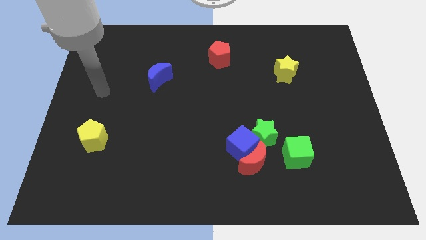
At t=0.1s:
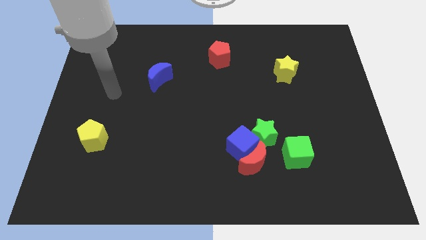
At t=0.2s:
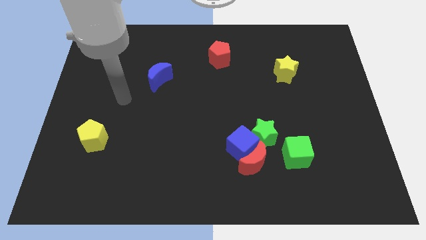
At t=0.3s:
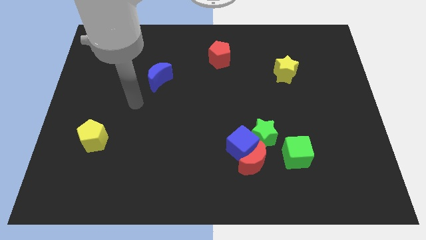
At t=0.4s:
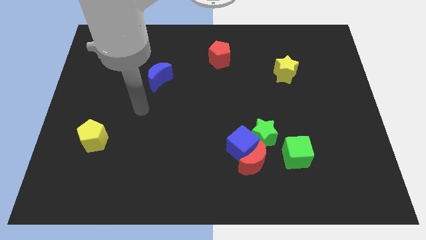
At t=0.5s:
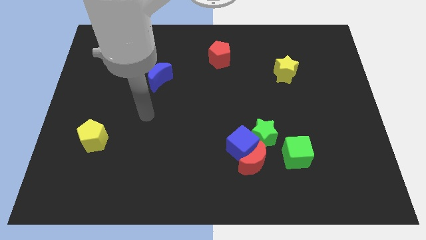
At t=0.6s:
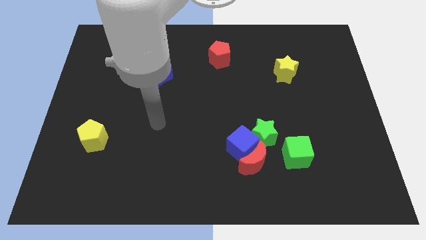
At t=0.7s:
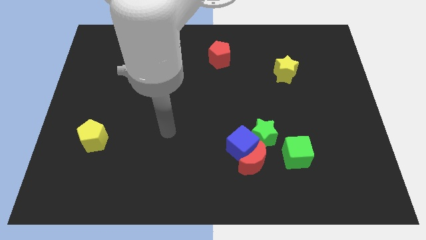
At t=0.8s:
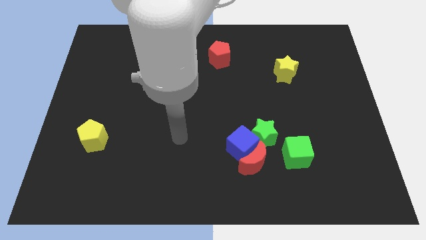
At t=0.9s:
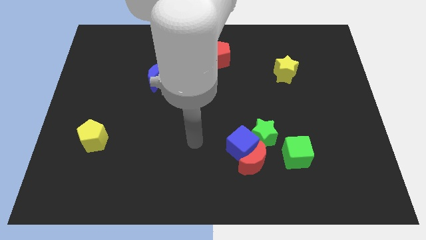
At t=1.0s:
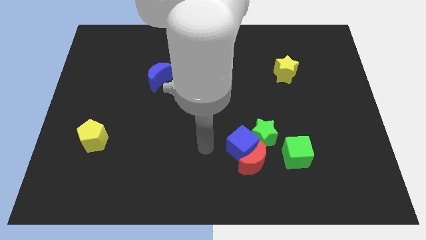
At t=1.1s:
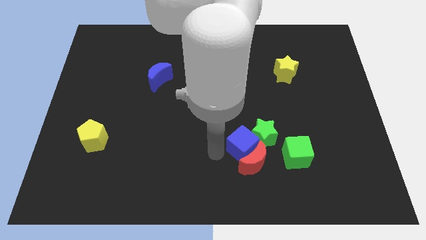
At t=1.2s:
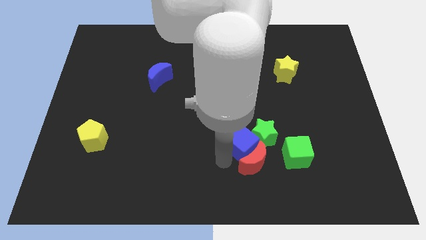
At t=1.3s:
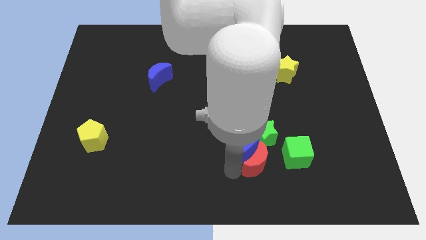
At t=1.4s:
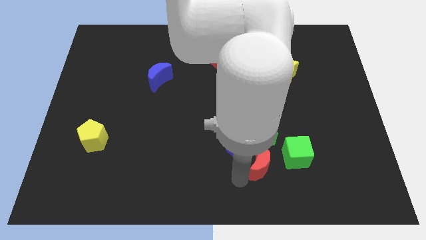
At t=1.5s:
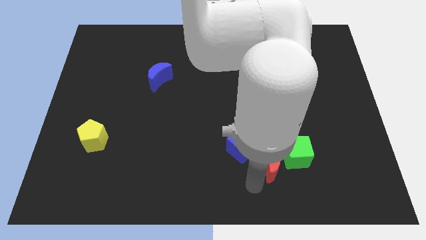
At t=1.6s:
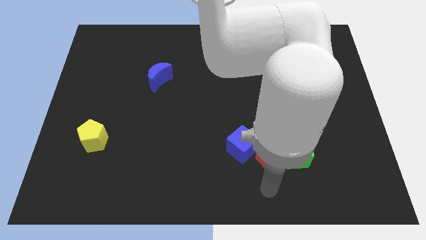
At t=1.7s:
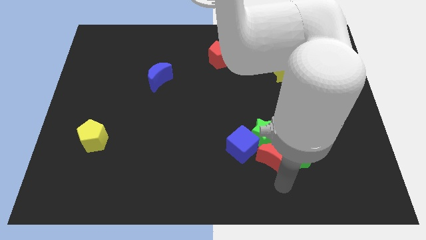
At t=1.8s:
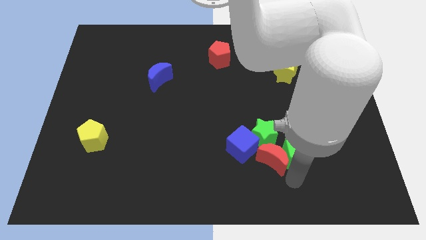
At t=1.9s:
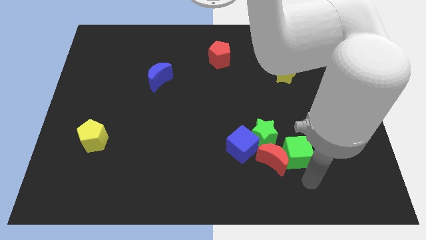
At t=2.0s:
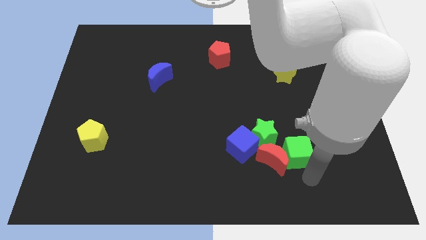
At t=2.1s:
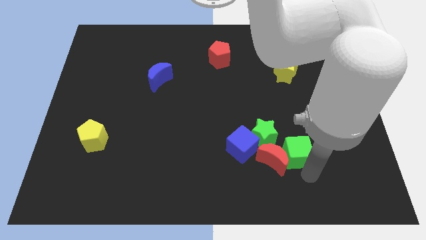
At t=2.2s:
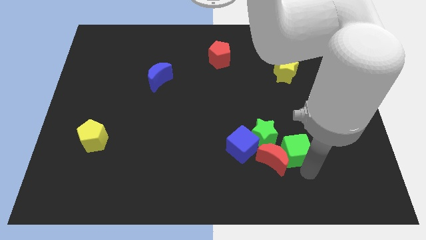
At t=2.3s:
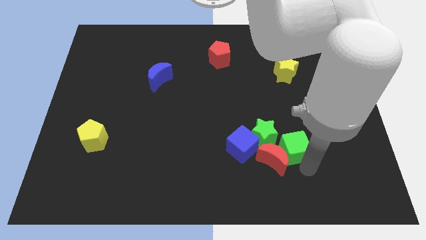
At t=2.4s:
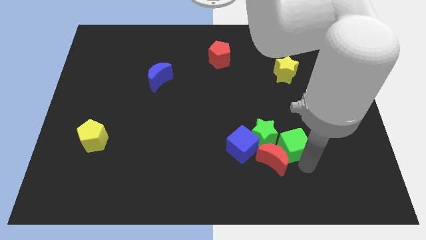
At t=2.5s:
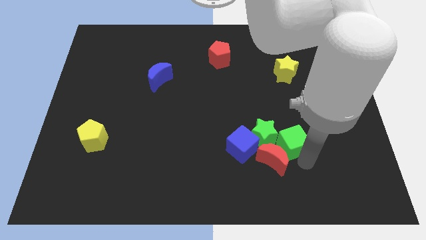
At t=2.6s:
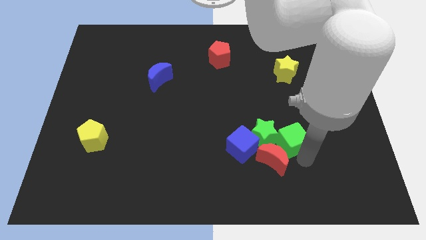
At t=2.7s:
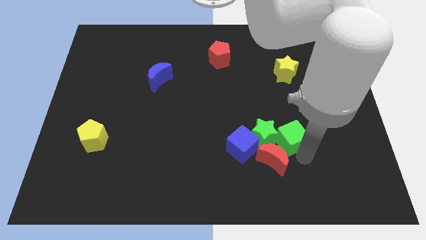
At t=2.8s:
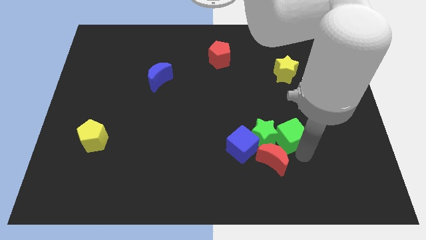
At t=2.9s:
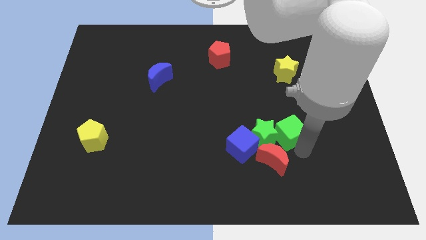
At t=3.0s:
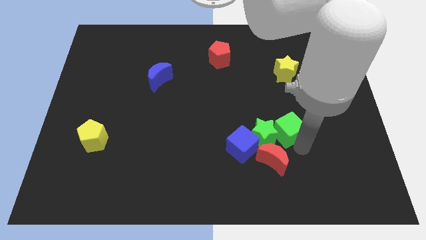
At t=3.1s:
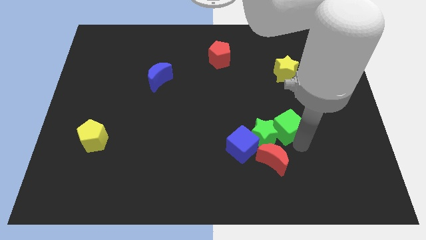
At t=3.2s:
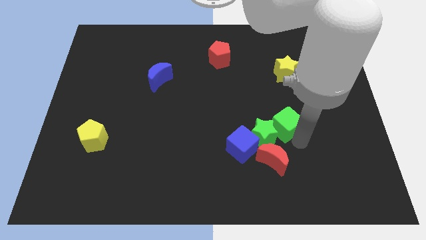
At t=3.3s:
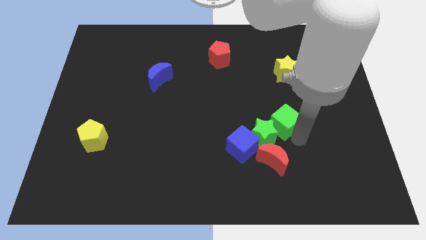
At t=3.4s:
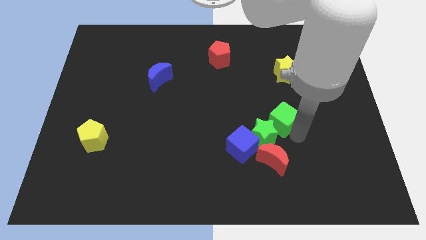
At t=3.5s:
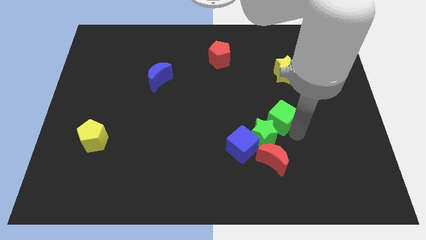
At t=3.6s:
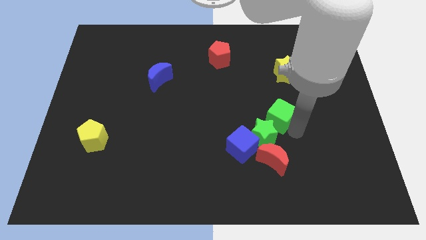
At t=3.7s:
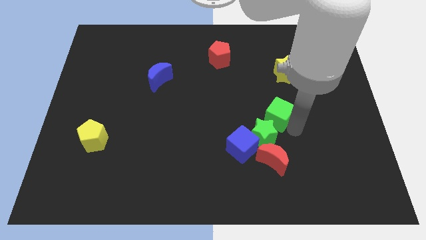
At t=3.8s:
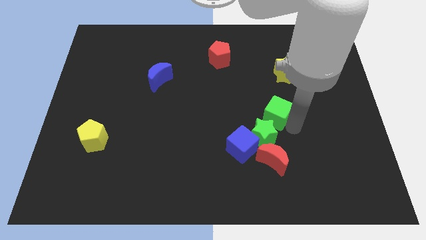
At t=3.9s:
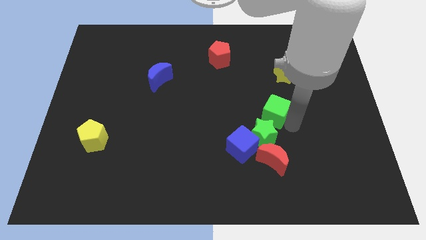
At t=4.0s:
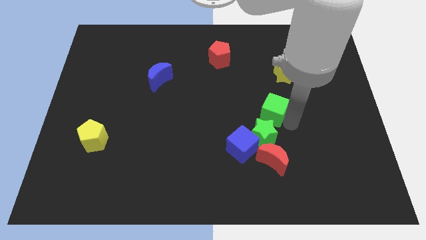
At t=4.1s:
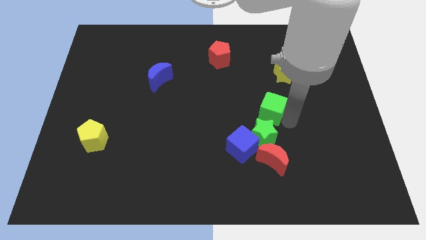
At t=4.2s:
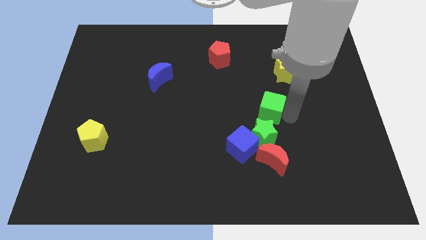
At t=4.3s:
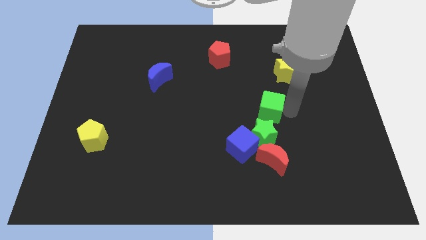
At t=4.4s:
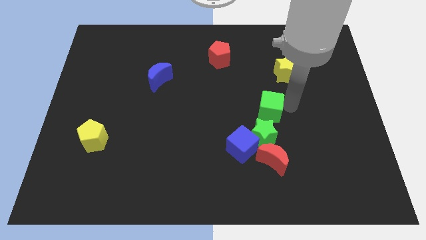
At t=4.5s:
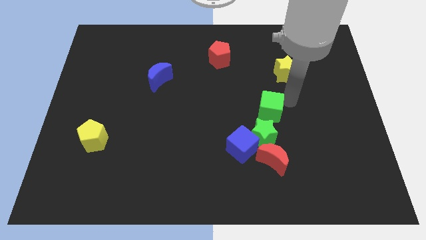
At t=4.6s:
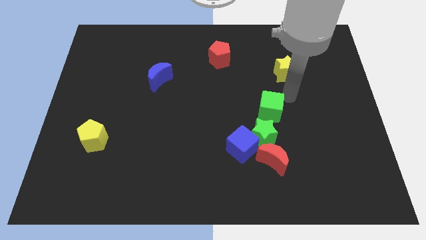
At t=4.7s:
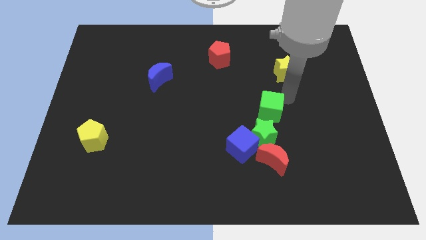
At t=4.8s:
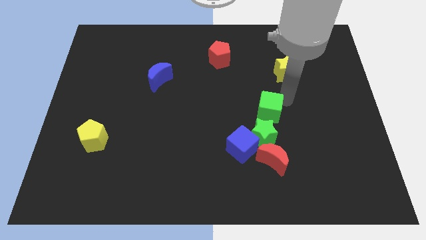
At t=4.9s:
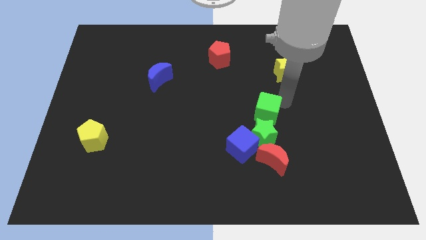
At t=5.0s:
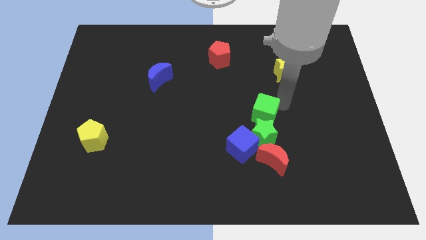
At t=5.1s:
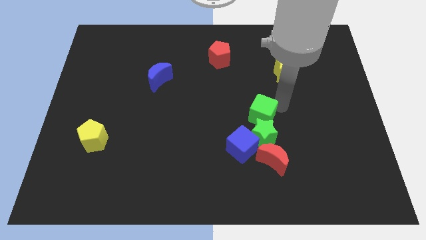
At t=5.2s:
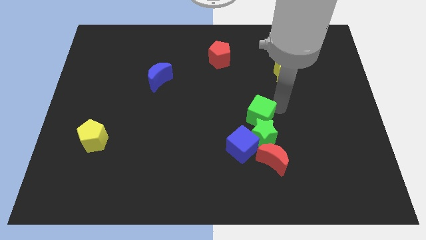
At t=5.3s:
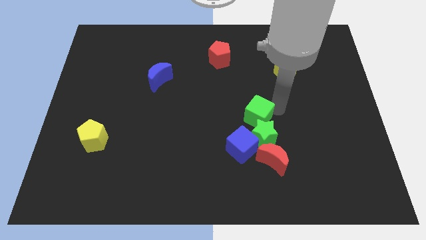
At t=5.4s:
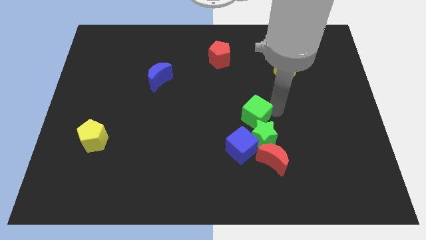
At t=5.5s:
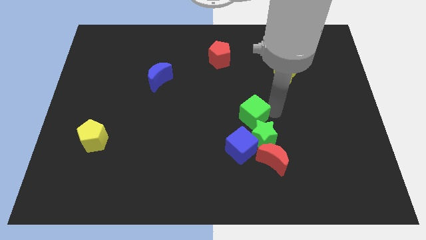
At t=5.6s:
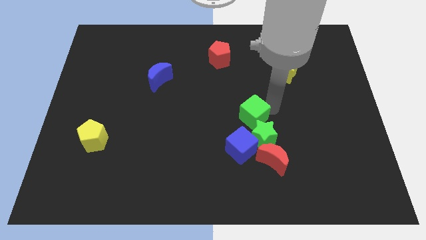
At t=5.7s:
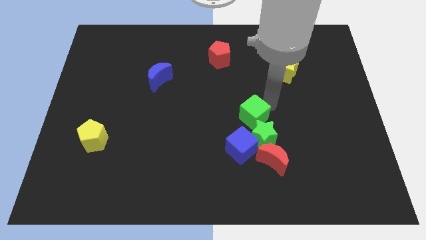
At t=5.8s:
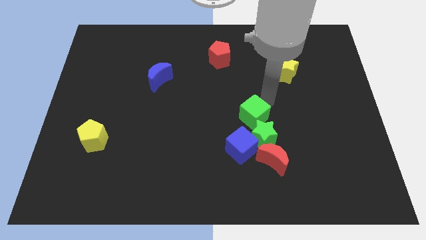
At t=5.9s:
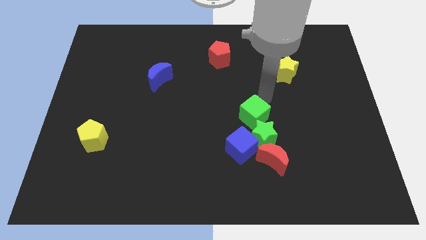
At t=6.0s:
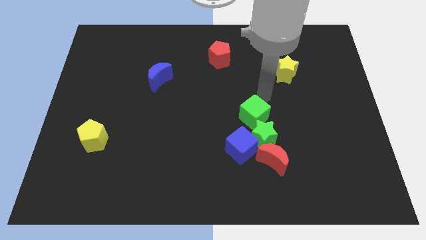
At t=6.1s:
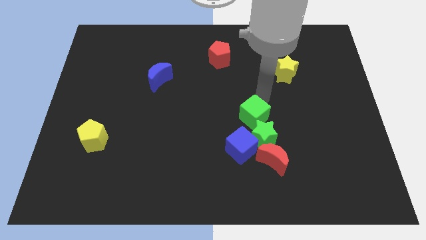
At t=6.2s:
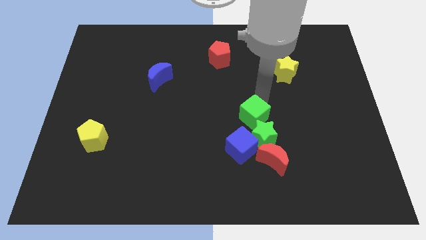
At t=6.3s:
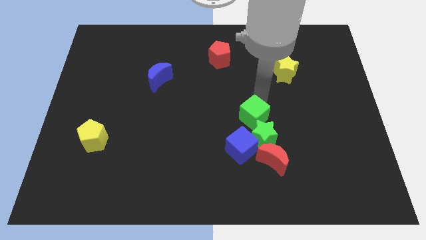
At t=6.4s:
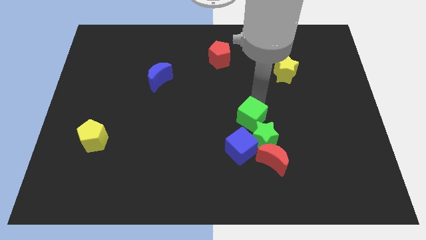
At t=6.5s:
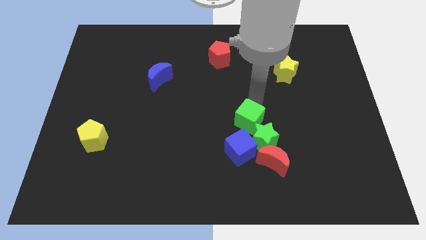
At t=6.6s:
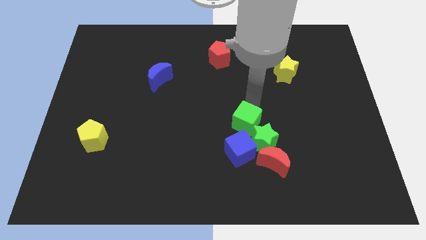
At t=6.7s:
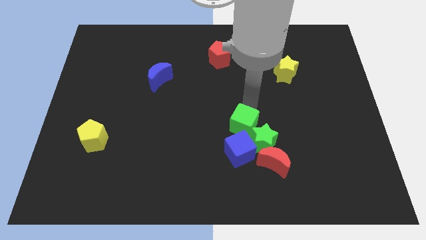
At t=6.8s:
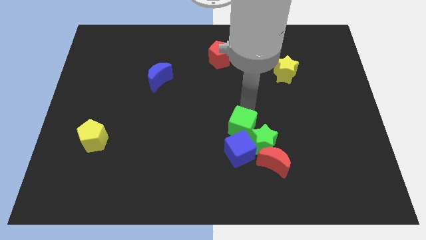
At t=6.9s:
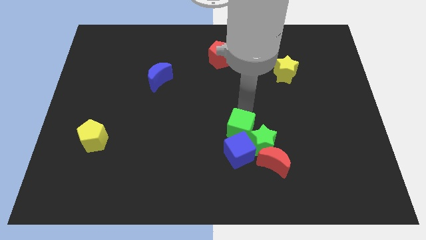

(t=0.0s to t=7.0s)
put the green cube close to the blue cube
